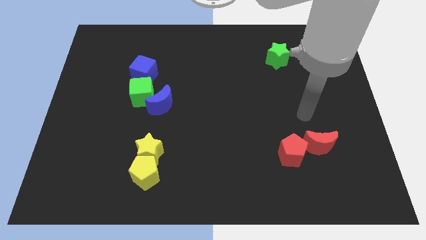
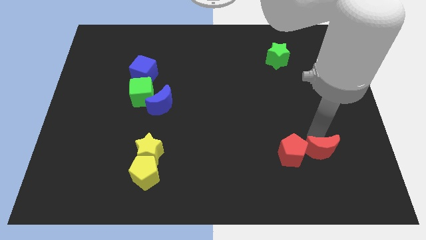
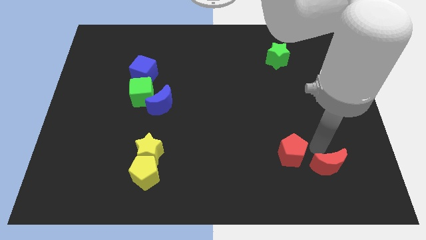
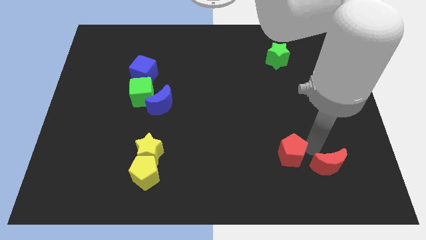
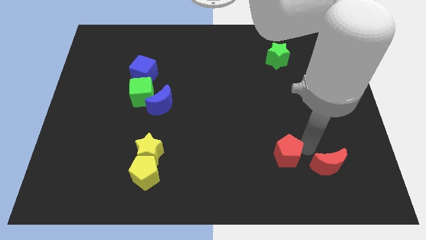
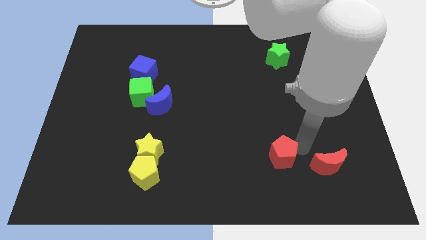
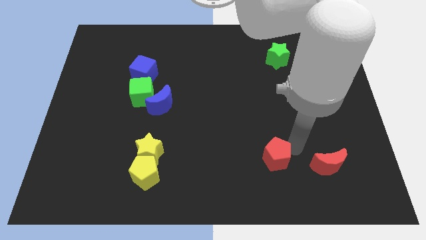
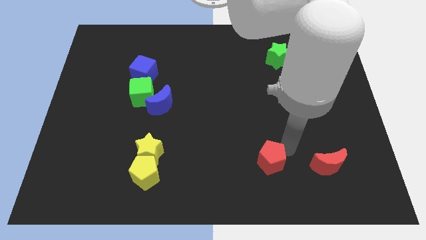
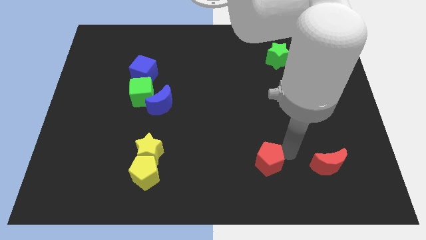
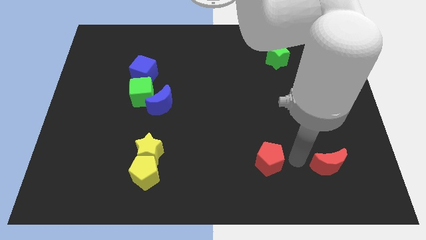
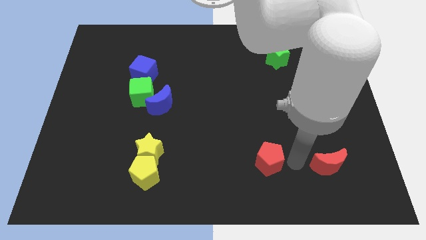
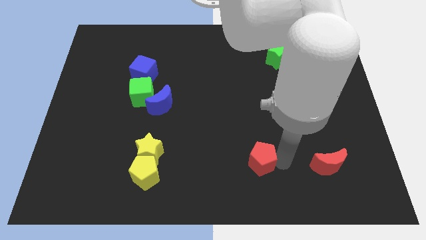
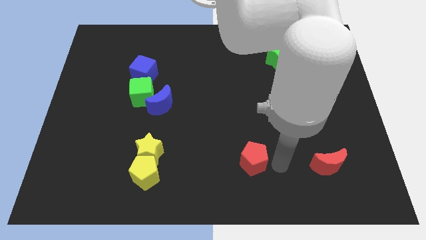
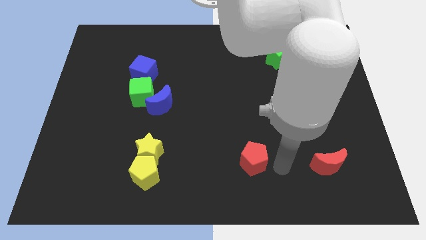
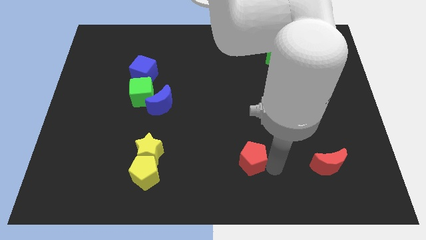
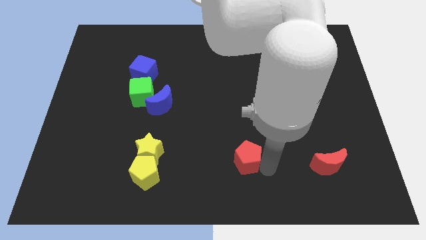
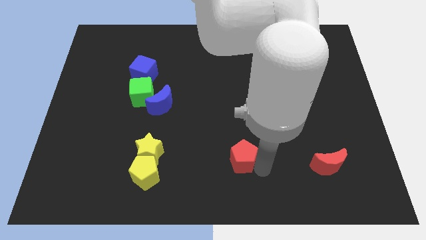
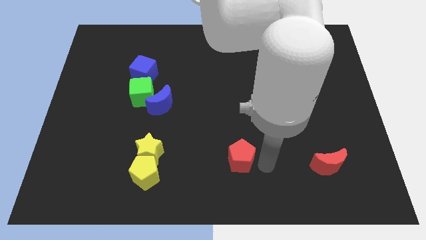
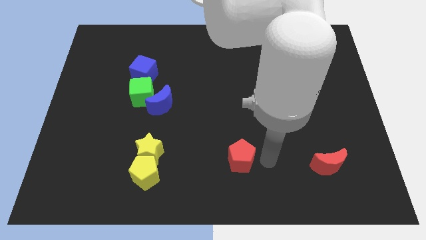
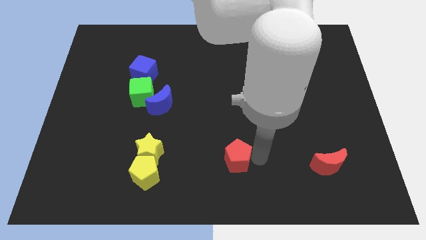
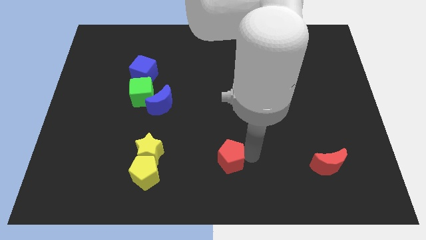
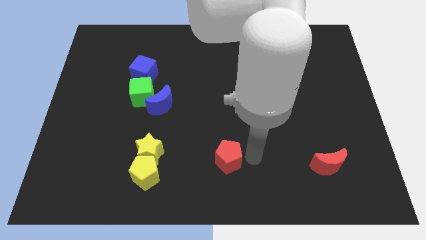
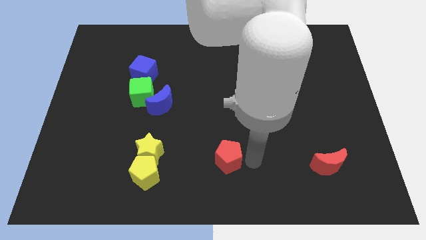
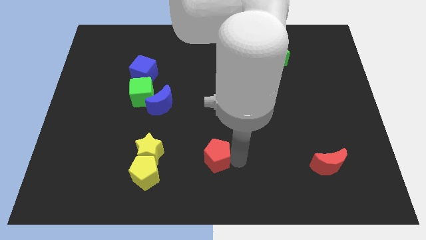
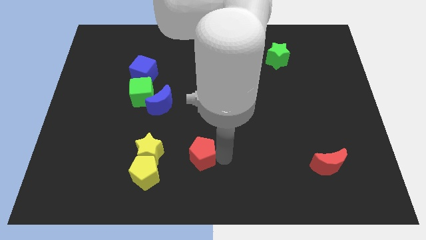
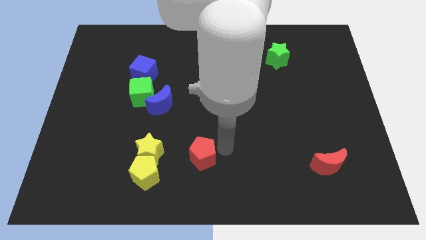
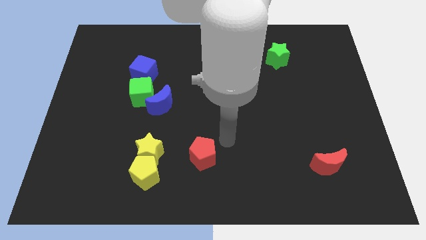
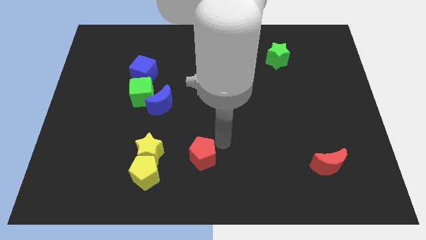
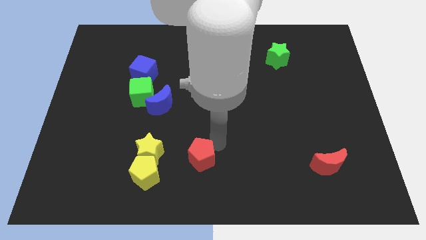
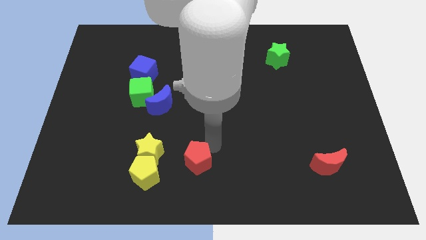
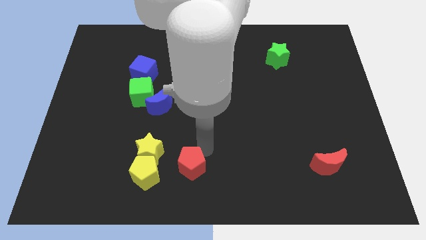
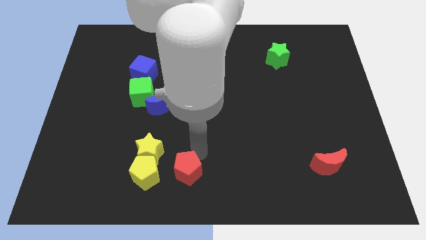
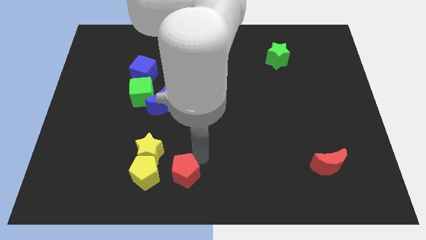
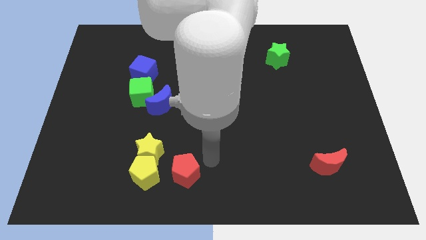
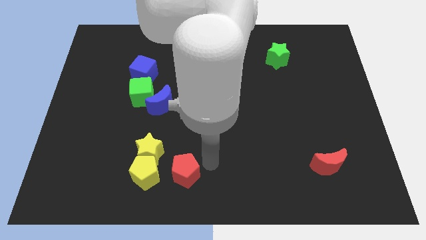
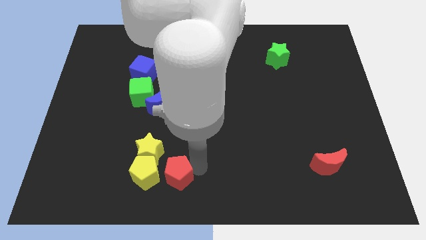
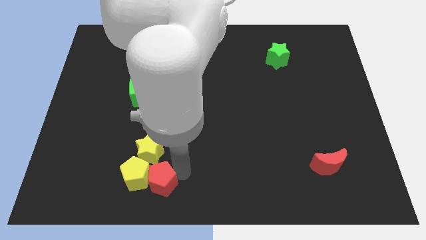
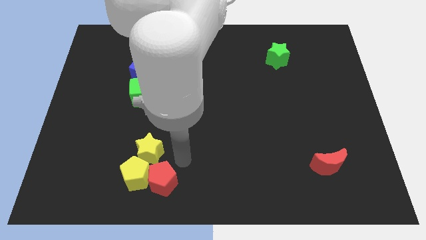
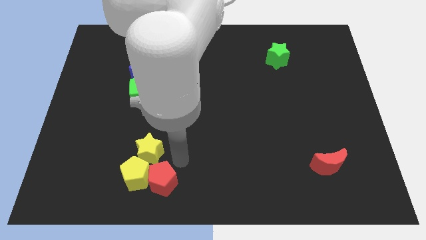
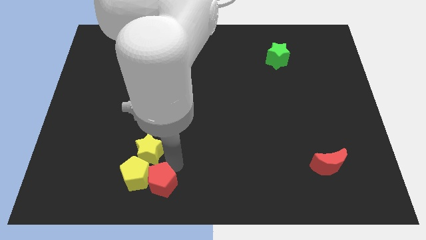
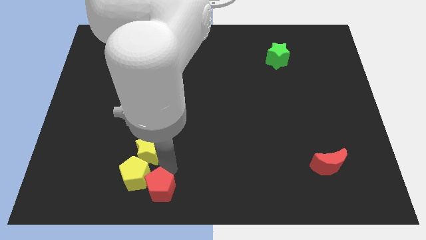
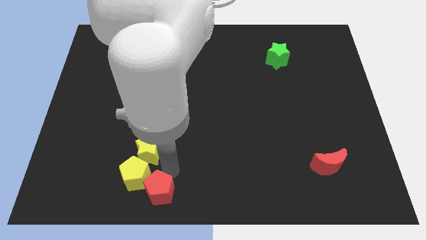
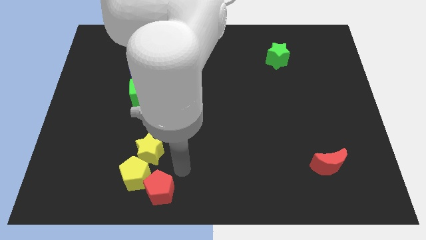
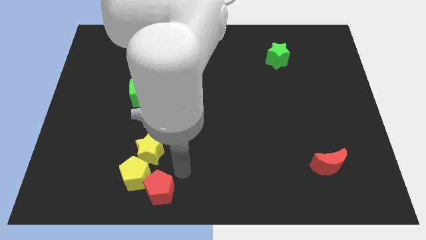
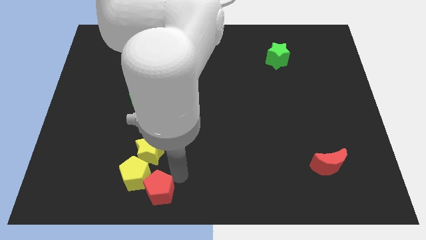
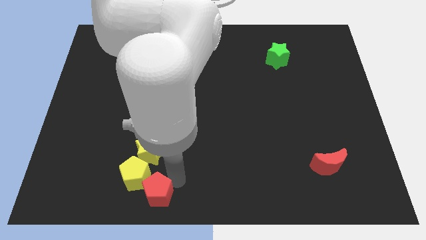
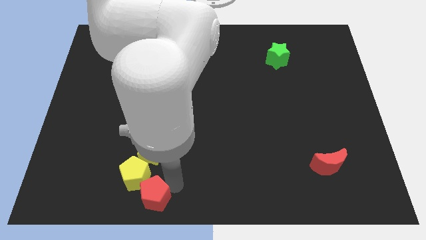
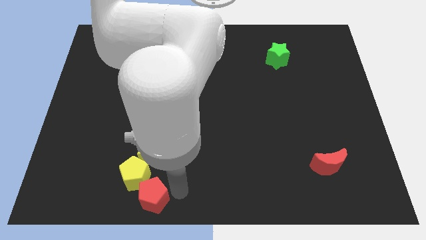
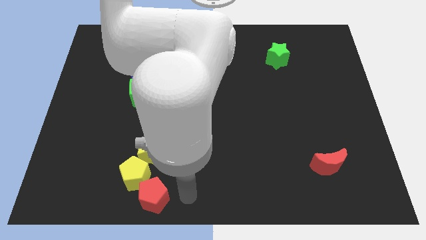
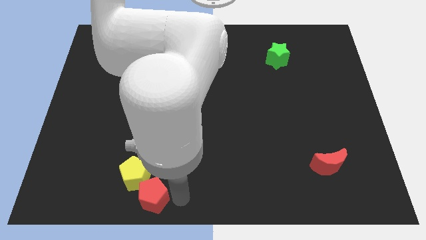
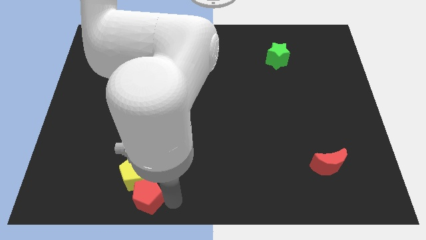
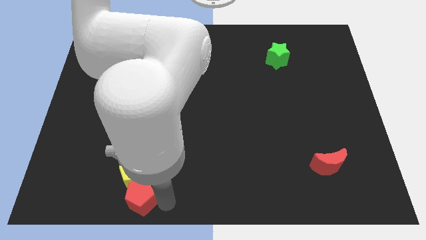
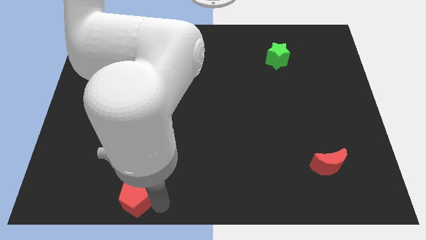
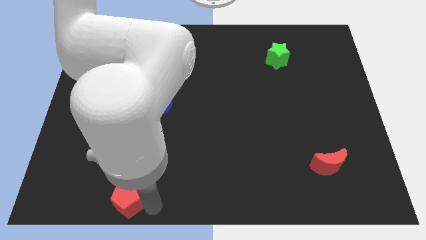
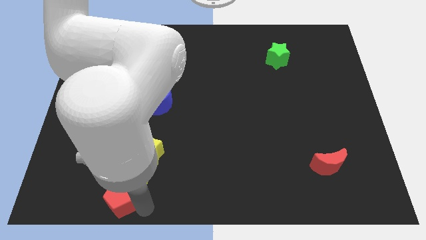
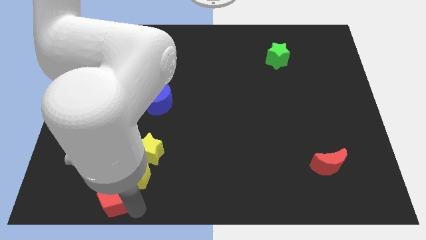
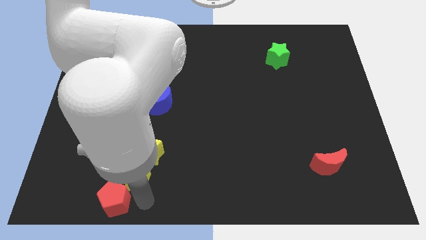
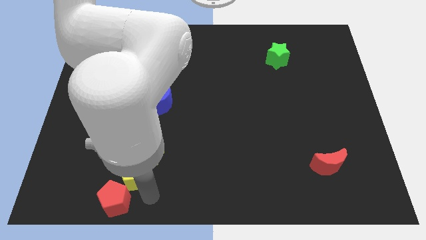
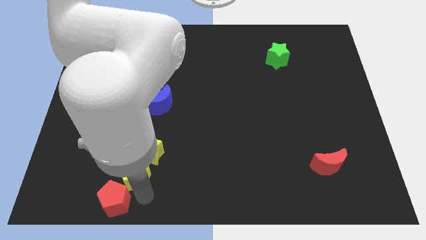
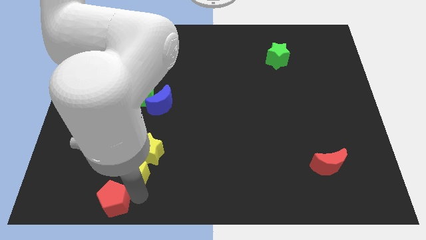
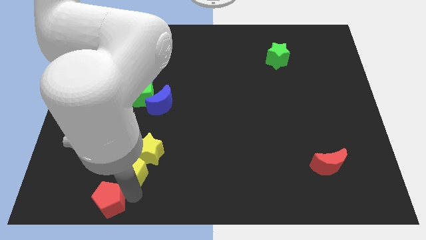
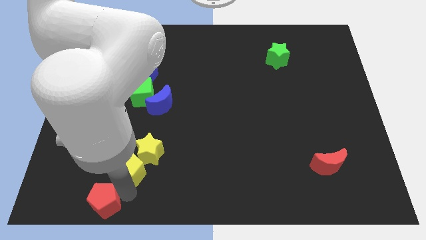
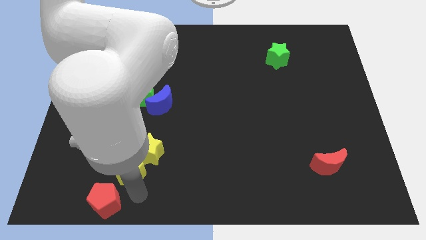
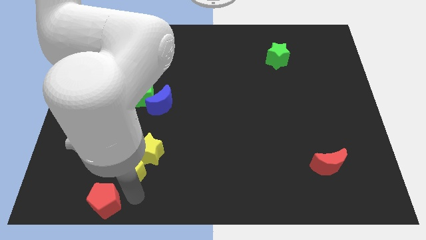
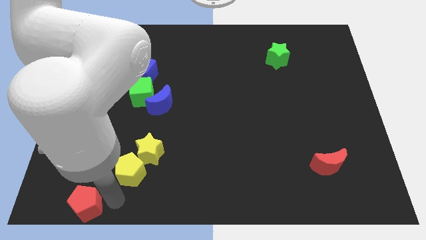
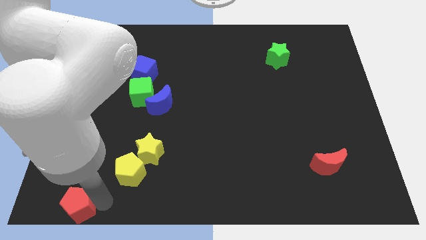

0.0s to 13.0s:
push the red pentagon to the bottom left
